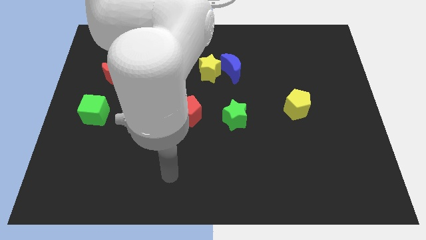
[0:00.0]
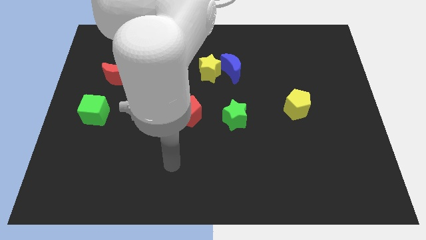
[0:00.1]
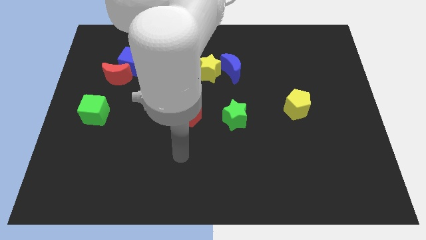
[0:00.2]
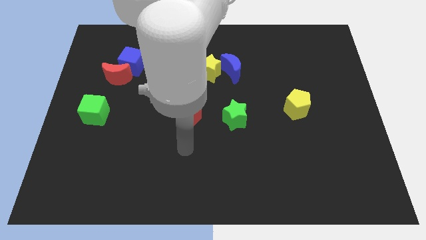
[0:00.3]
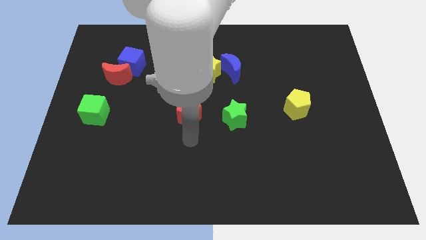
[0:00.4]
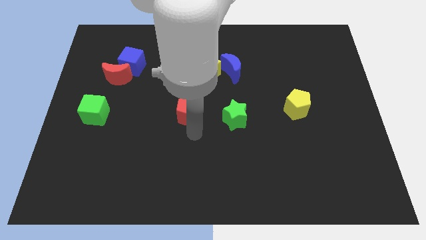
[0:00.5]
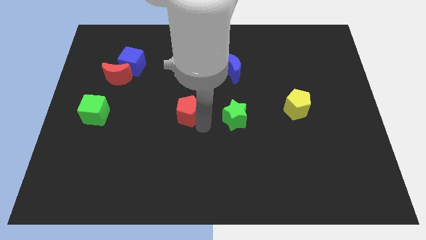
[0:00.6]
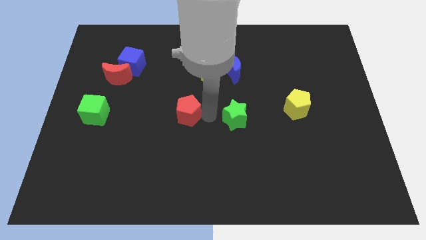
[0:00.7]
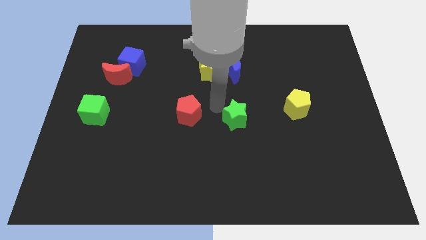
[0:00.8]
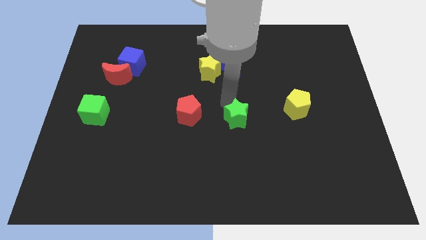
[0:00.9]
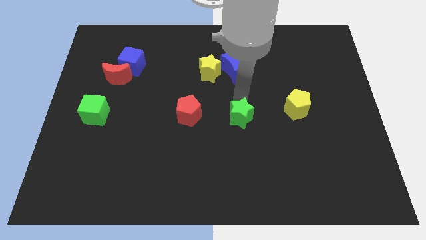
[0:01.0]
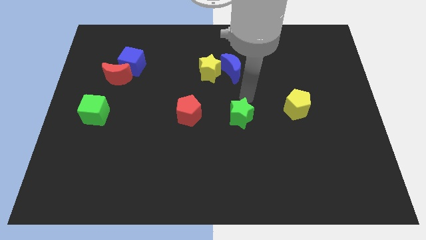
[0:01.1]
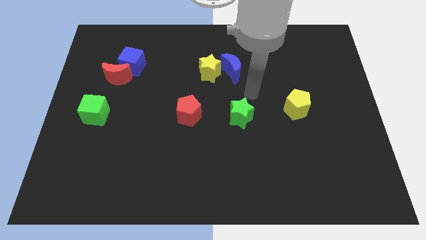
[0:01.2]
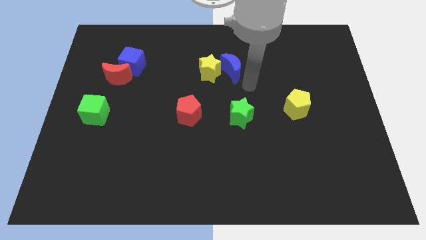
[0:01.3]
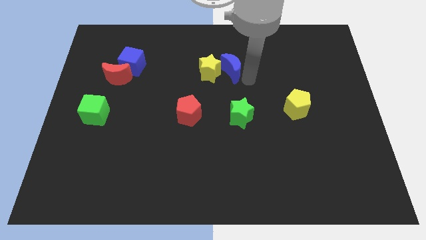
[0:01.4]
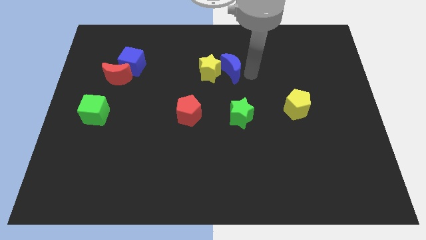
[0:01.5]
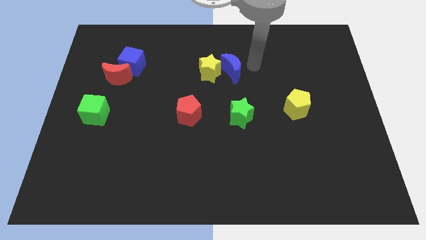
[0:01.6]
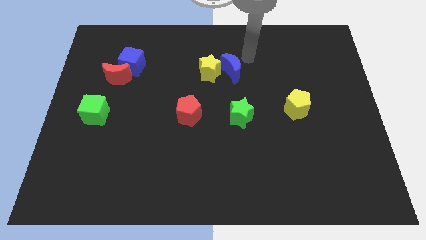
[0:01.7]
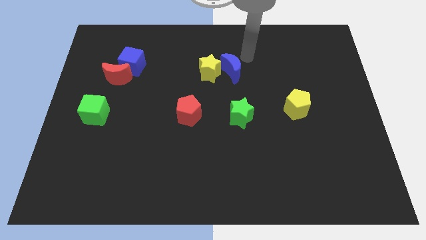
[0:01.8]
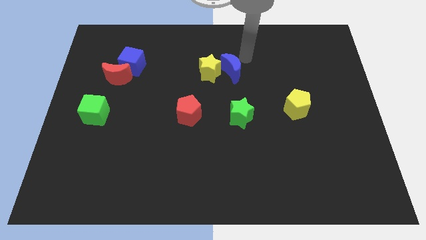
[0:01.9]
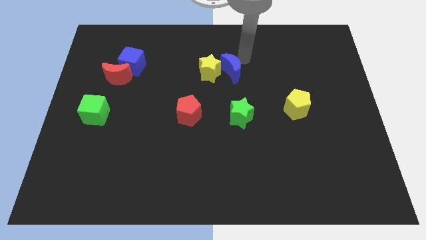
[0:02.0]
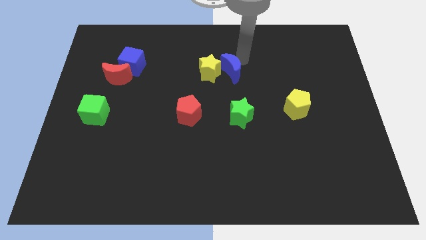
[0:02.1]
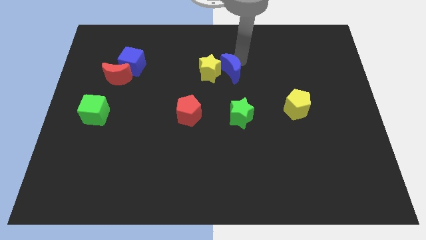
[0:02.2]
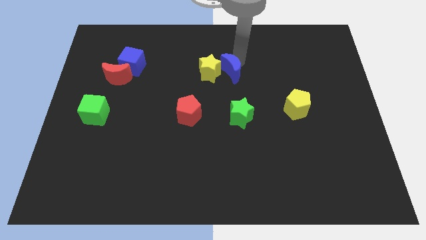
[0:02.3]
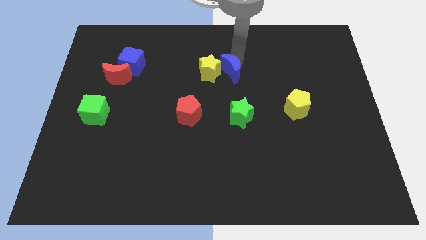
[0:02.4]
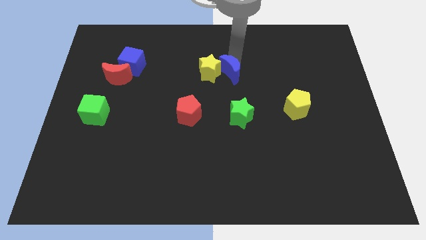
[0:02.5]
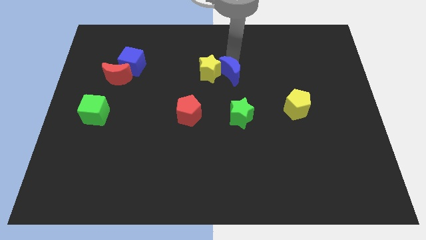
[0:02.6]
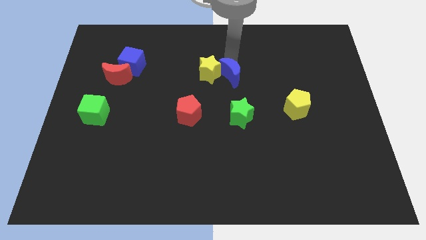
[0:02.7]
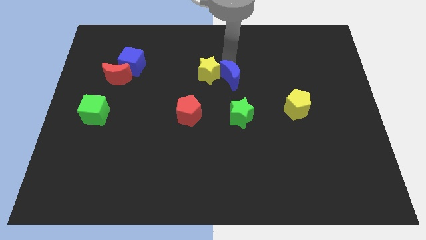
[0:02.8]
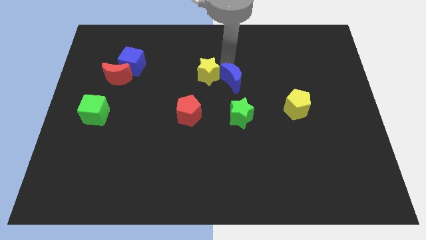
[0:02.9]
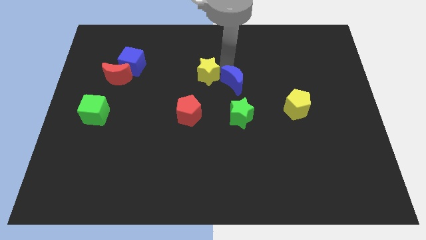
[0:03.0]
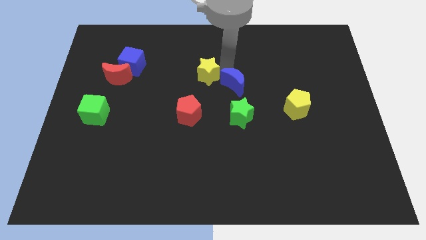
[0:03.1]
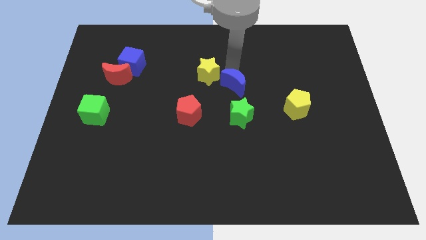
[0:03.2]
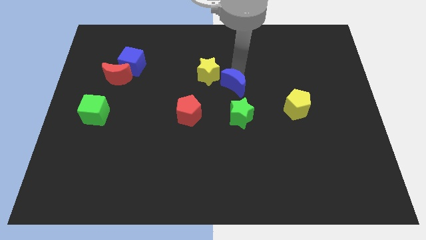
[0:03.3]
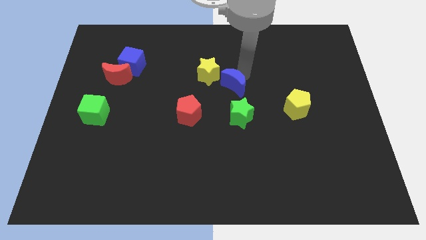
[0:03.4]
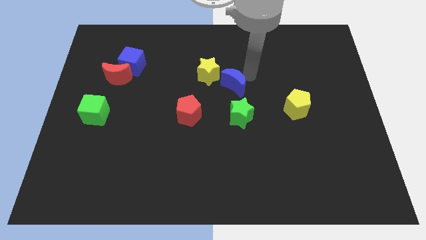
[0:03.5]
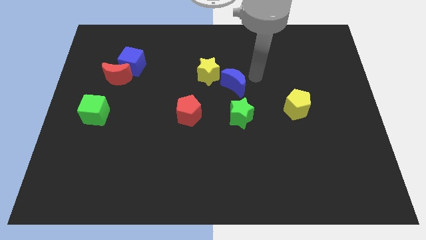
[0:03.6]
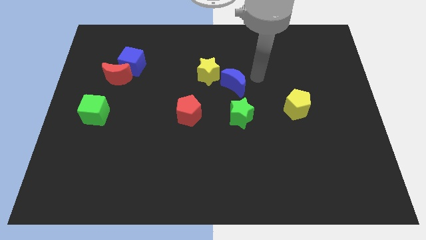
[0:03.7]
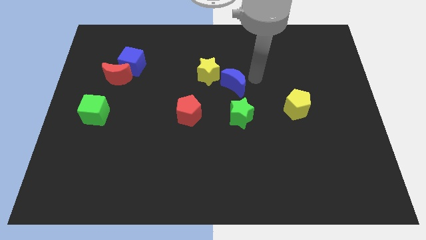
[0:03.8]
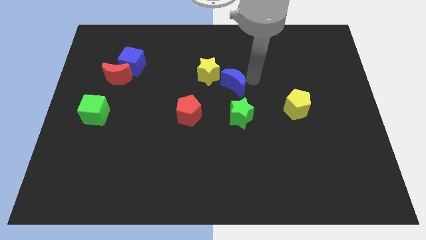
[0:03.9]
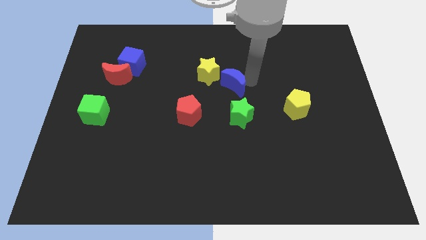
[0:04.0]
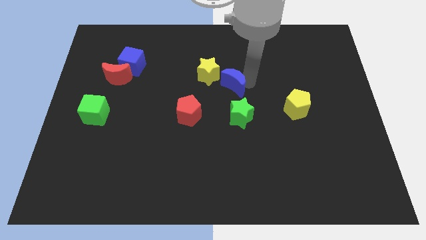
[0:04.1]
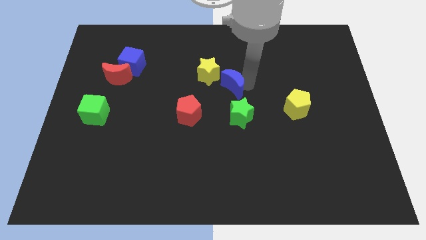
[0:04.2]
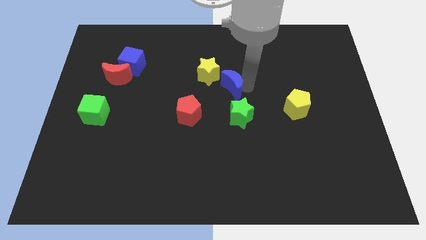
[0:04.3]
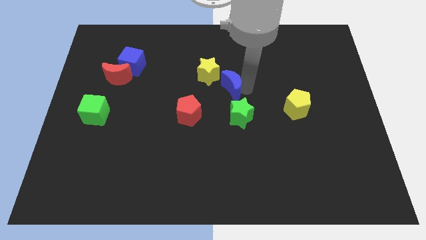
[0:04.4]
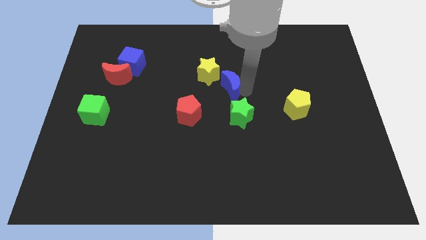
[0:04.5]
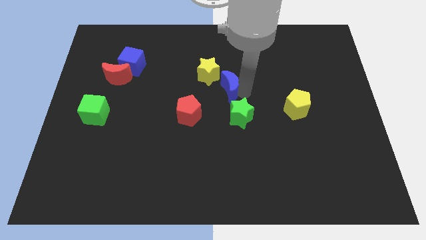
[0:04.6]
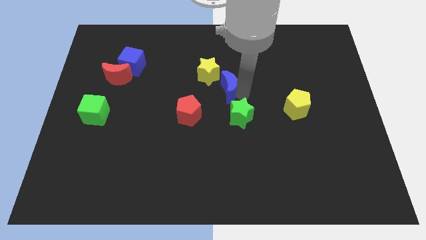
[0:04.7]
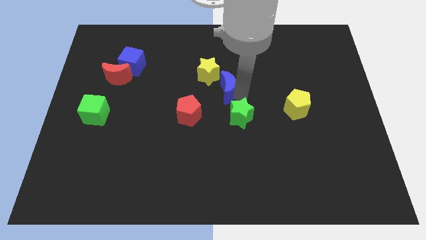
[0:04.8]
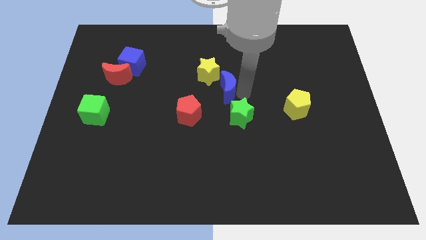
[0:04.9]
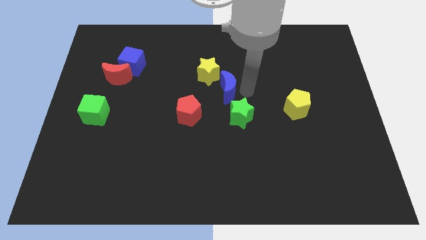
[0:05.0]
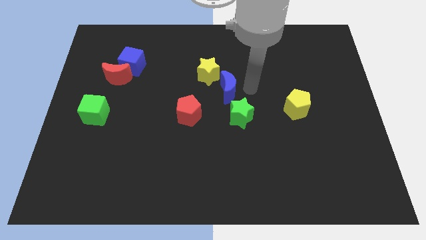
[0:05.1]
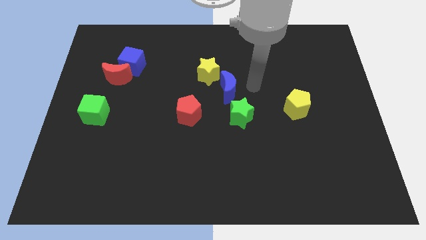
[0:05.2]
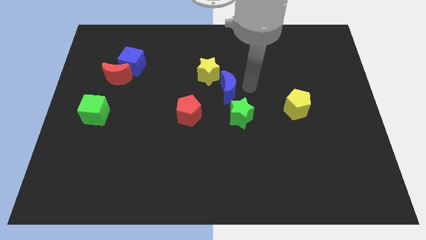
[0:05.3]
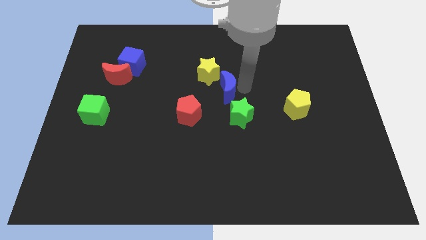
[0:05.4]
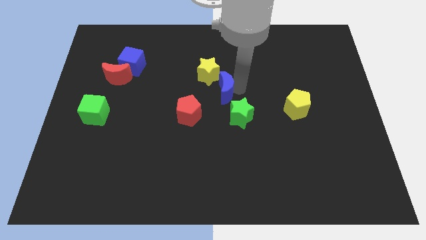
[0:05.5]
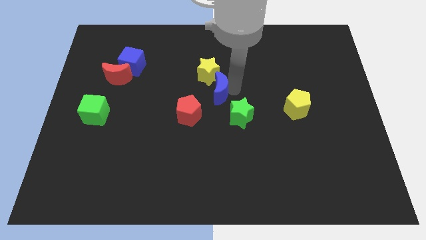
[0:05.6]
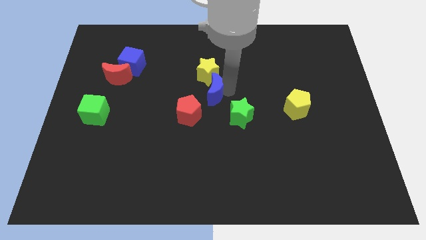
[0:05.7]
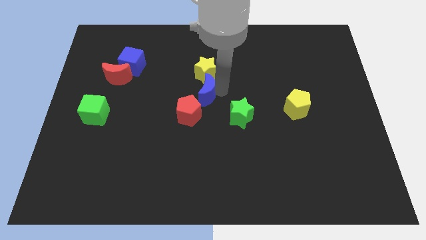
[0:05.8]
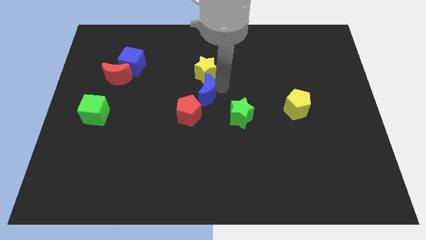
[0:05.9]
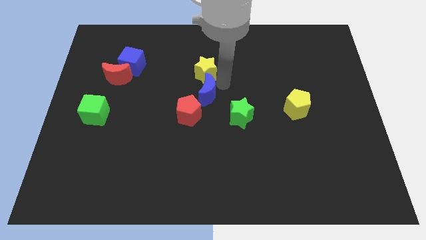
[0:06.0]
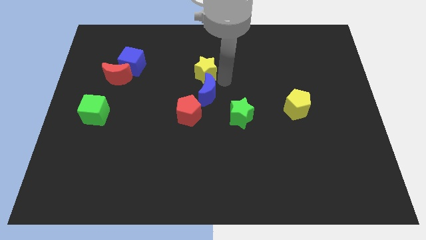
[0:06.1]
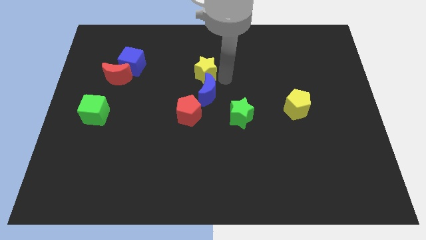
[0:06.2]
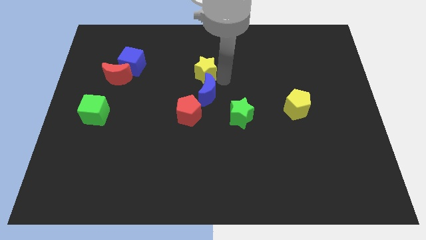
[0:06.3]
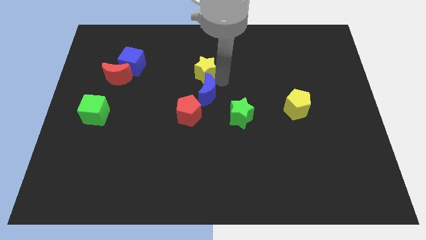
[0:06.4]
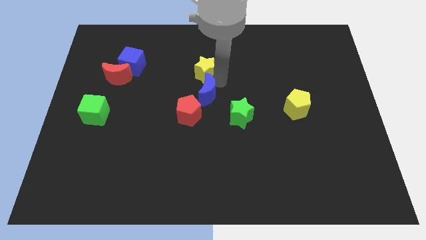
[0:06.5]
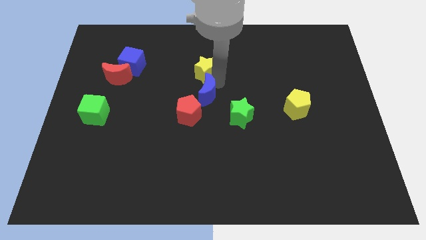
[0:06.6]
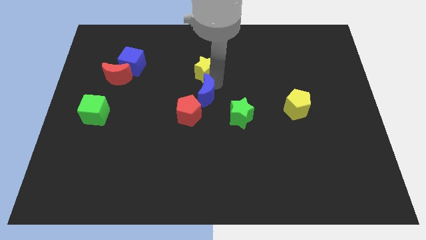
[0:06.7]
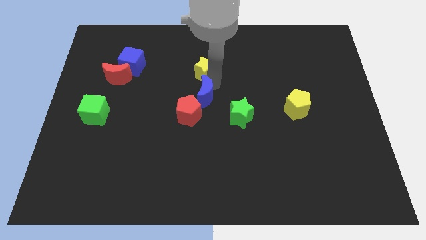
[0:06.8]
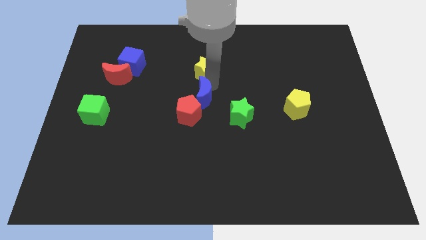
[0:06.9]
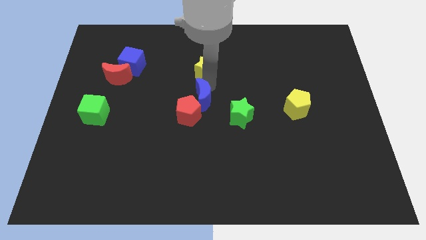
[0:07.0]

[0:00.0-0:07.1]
move the blue moon close to the red pentagon
